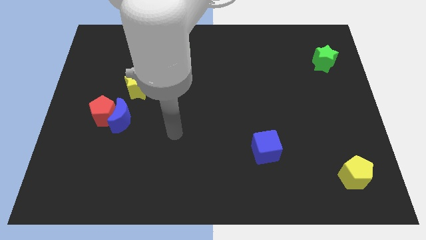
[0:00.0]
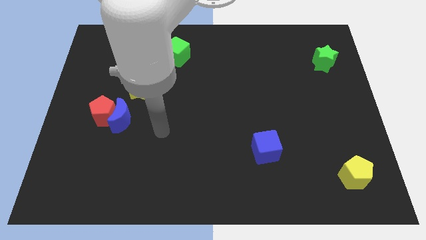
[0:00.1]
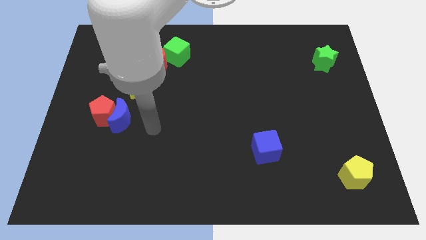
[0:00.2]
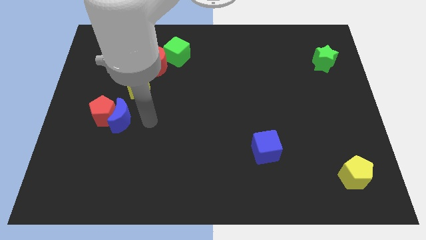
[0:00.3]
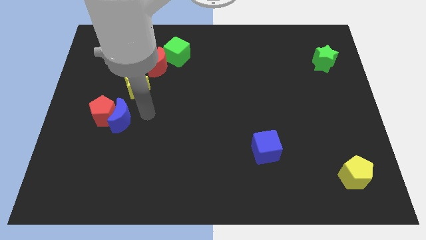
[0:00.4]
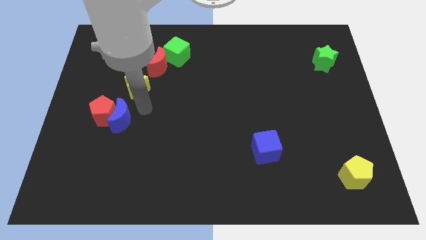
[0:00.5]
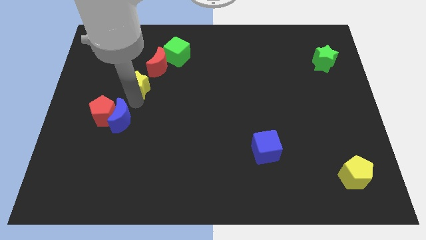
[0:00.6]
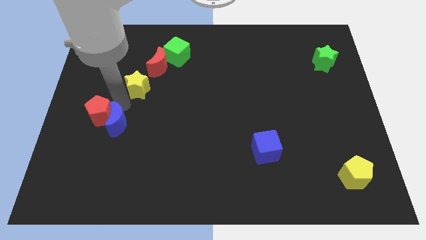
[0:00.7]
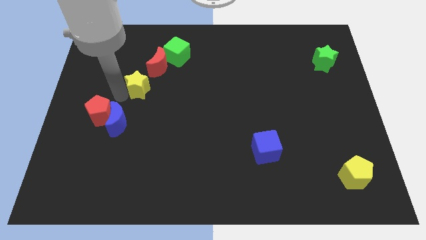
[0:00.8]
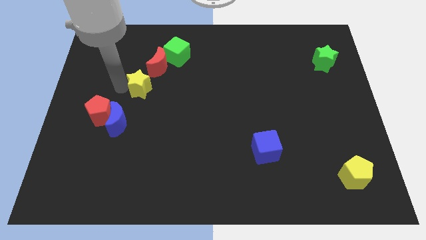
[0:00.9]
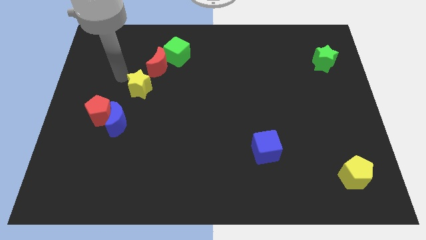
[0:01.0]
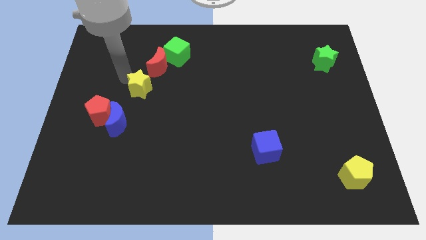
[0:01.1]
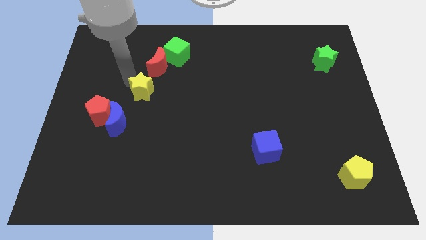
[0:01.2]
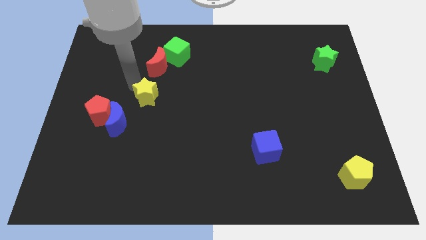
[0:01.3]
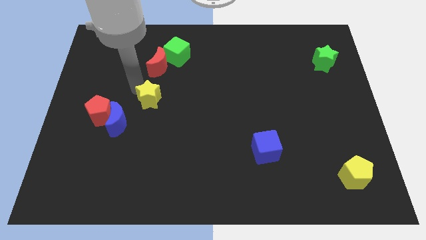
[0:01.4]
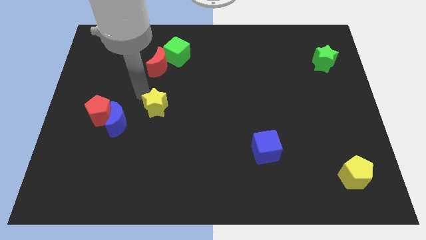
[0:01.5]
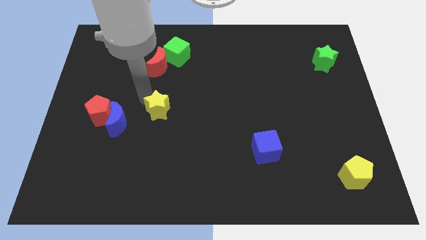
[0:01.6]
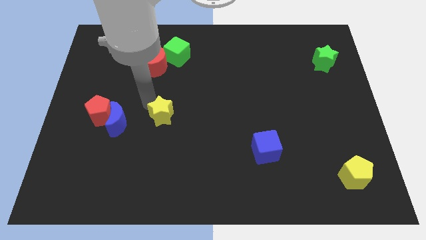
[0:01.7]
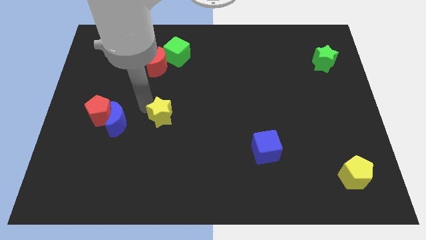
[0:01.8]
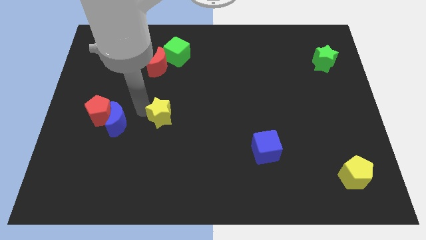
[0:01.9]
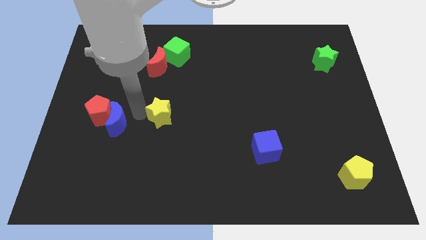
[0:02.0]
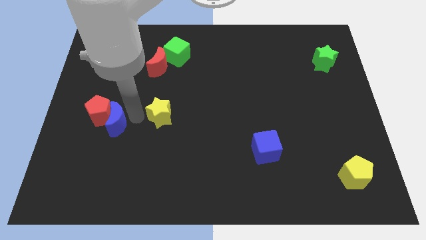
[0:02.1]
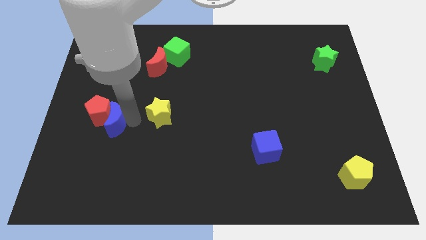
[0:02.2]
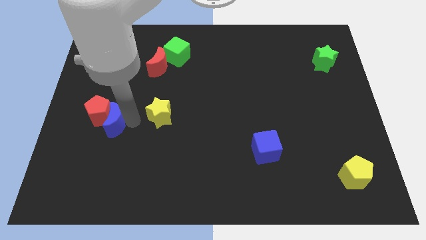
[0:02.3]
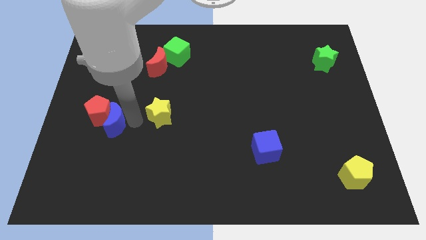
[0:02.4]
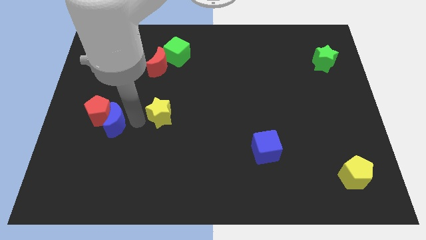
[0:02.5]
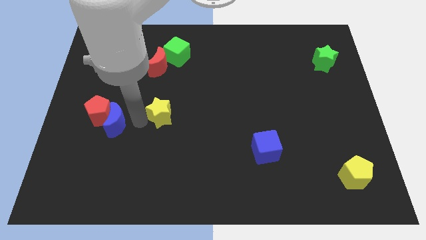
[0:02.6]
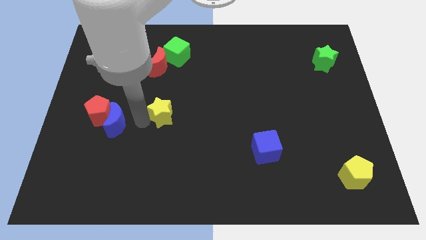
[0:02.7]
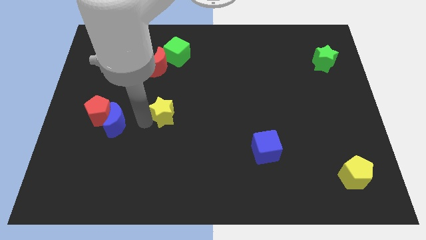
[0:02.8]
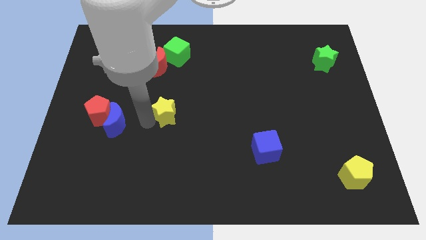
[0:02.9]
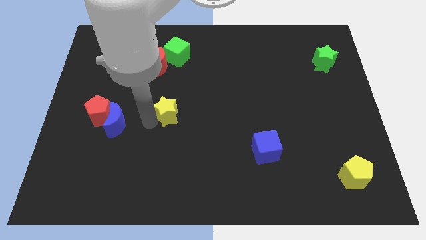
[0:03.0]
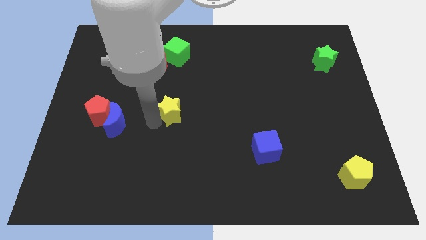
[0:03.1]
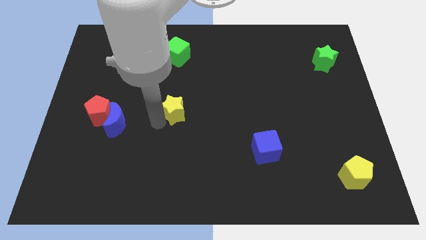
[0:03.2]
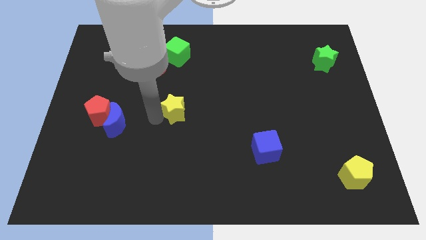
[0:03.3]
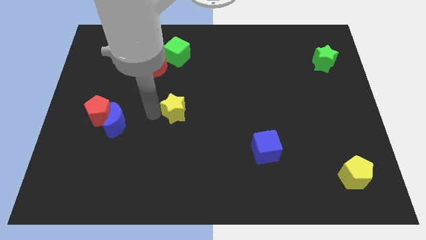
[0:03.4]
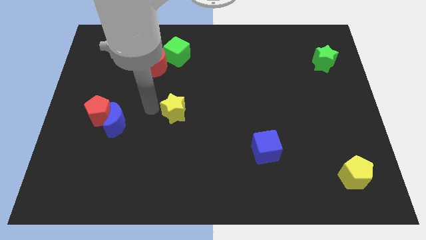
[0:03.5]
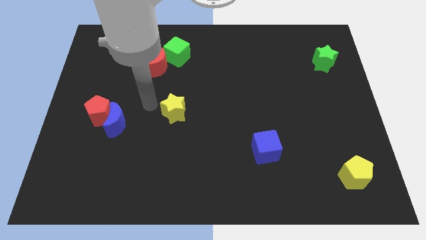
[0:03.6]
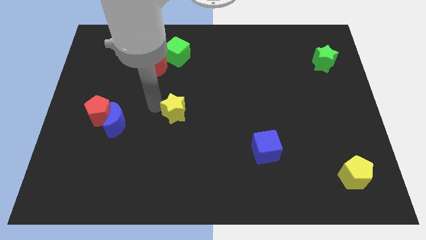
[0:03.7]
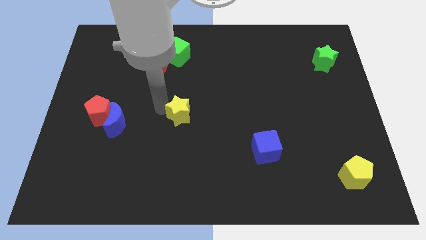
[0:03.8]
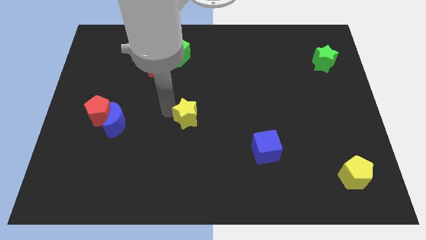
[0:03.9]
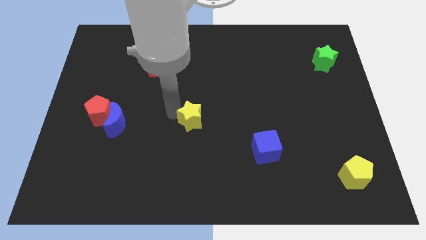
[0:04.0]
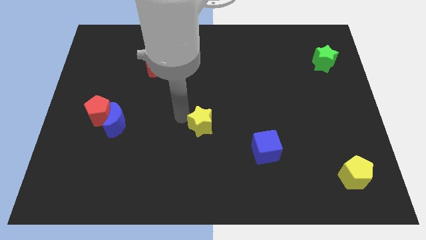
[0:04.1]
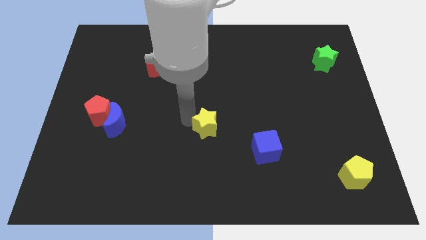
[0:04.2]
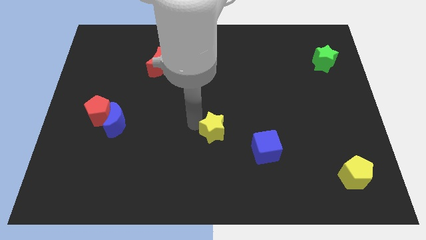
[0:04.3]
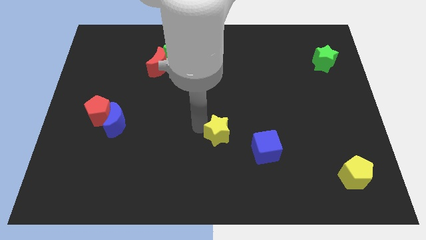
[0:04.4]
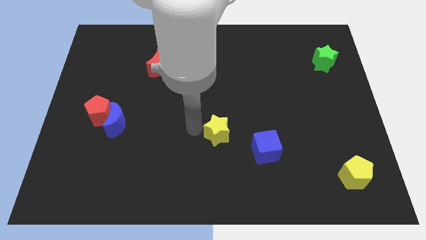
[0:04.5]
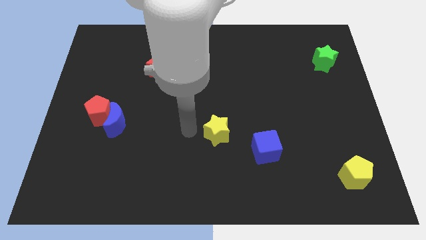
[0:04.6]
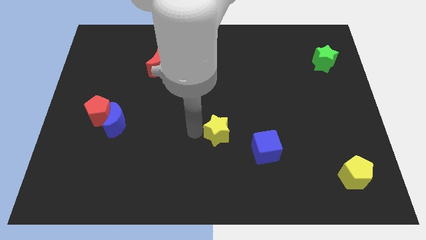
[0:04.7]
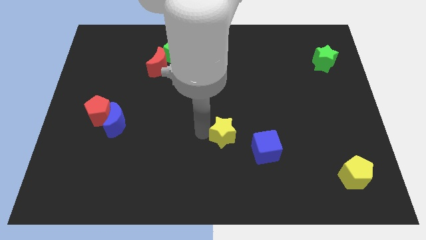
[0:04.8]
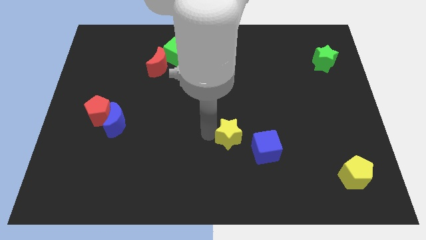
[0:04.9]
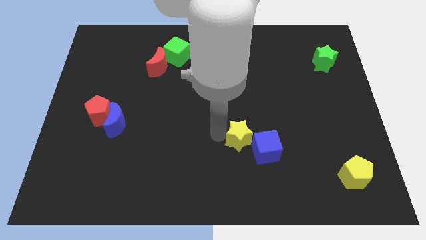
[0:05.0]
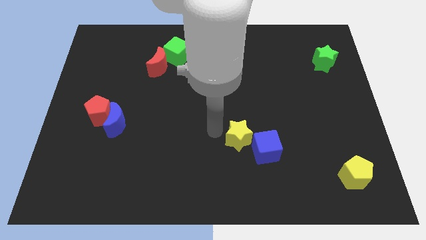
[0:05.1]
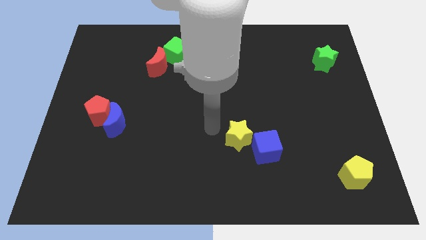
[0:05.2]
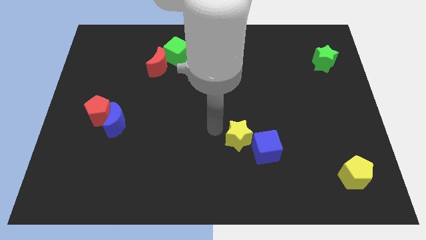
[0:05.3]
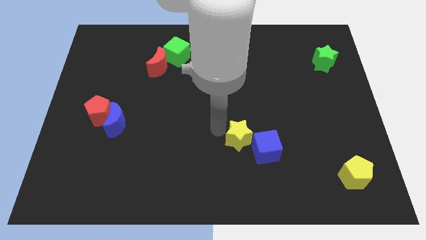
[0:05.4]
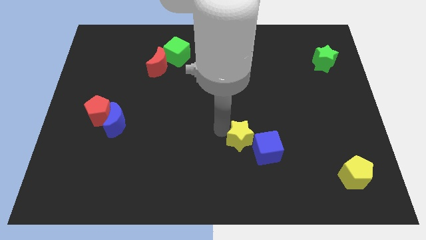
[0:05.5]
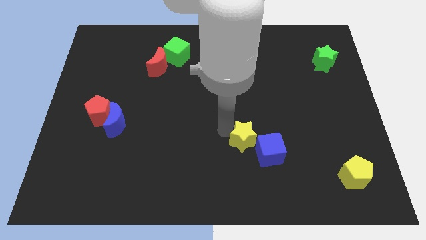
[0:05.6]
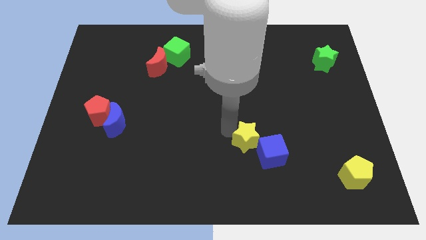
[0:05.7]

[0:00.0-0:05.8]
put the yellow star close to the blue cube

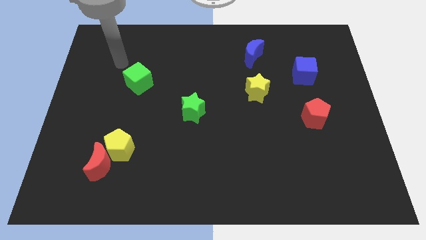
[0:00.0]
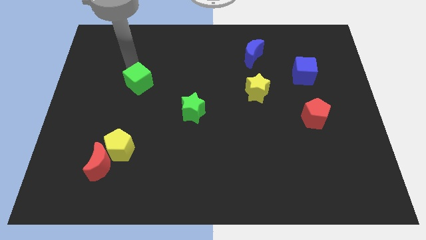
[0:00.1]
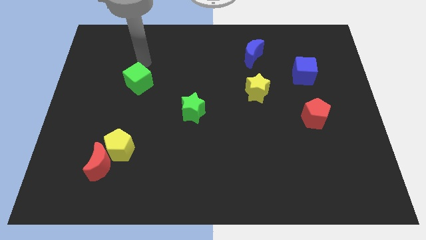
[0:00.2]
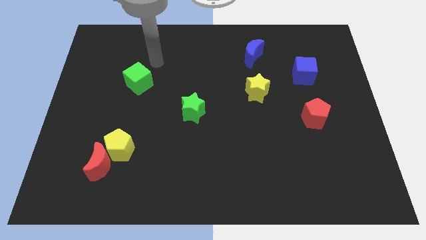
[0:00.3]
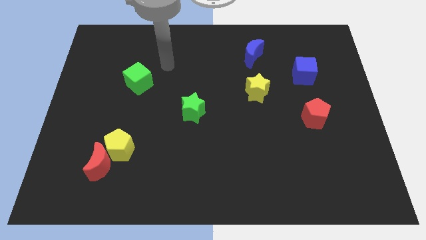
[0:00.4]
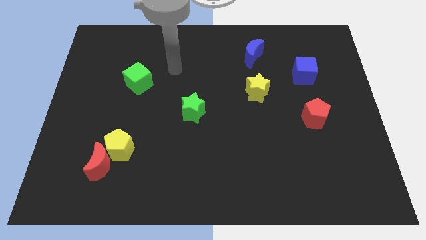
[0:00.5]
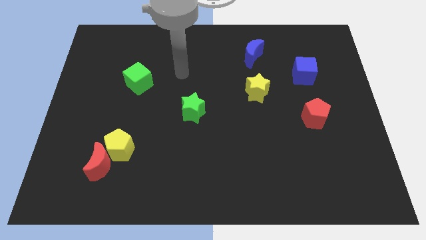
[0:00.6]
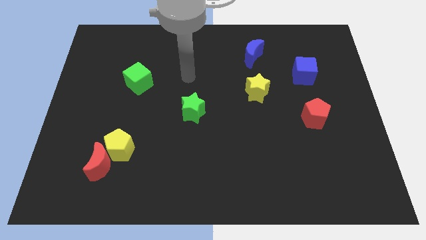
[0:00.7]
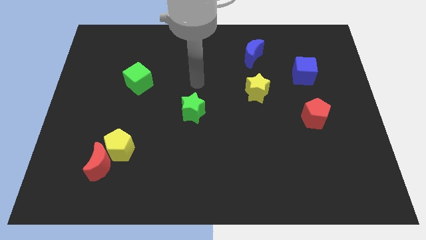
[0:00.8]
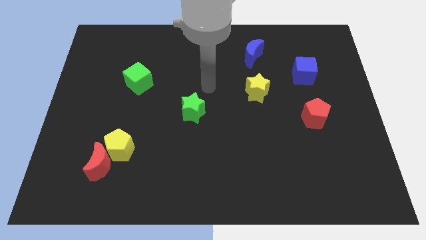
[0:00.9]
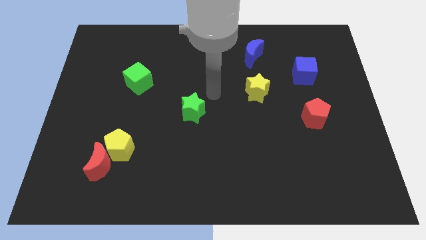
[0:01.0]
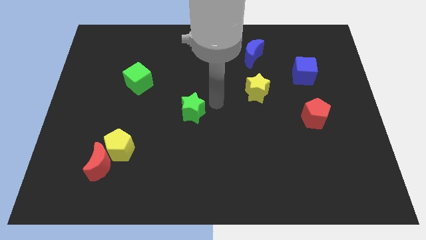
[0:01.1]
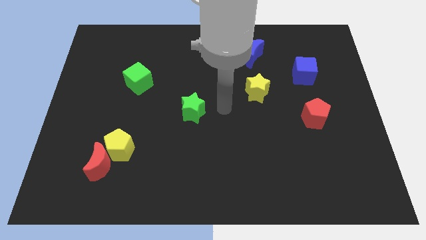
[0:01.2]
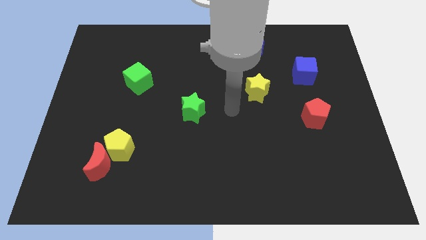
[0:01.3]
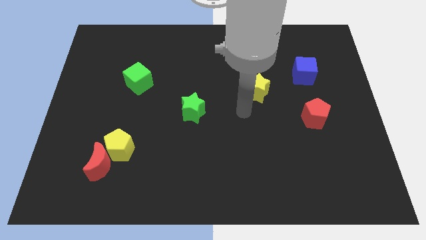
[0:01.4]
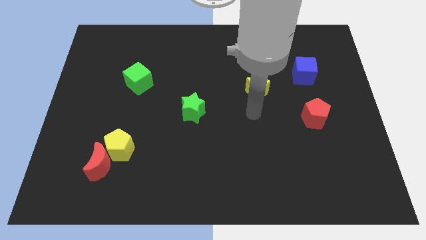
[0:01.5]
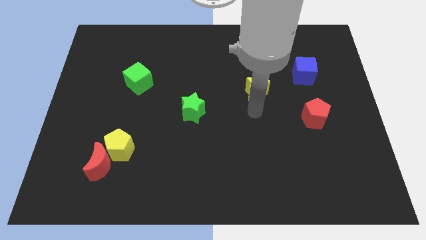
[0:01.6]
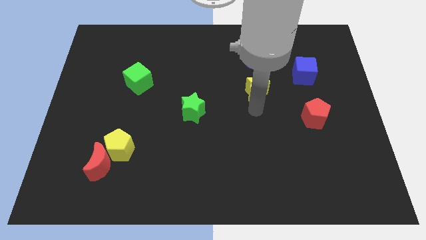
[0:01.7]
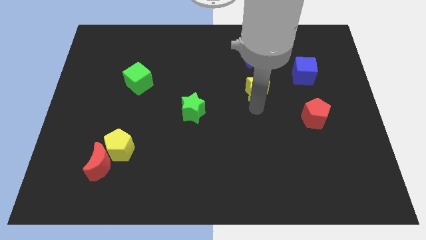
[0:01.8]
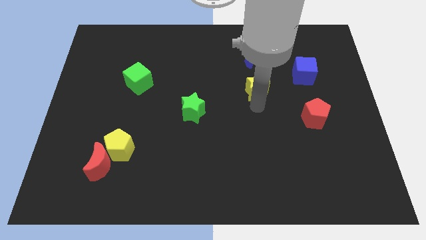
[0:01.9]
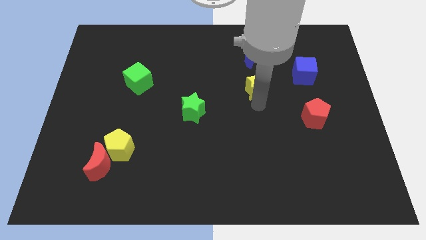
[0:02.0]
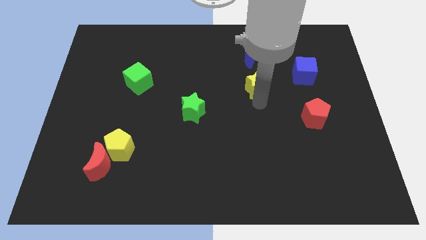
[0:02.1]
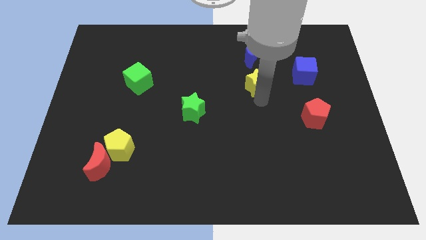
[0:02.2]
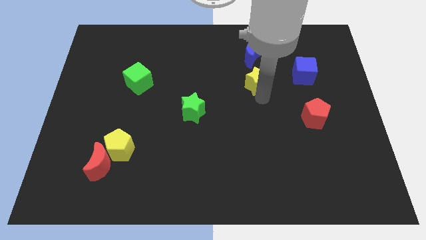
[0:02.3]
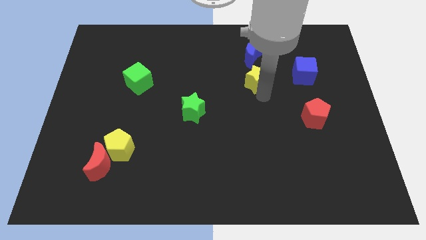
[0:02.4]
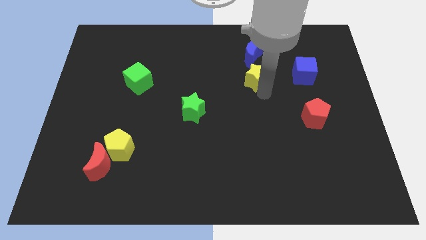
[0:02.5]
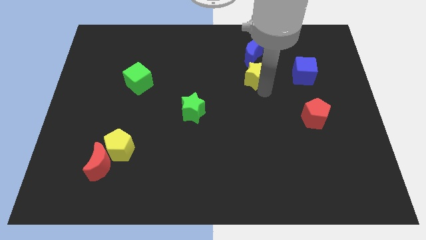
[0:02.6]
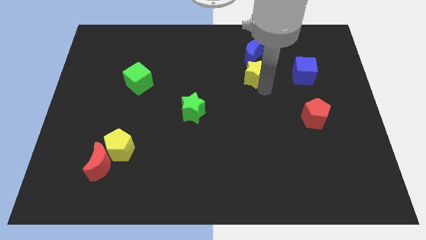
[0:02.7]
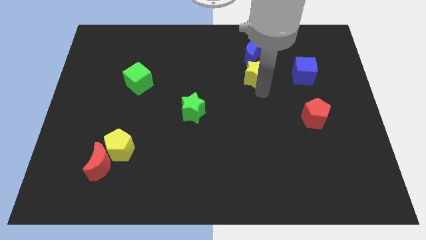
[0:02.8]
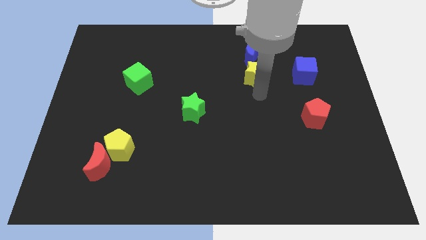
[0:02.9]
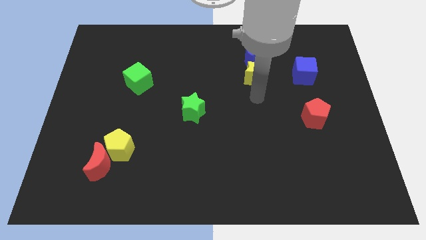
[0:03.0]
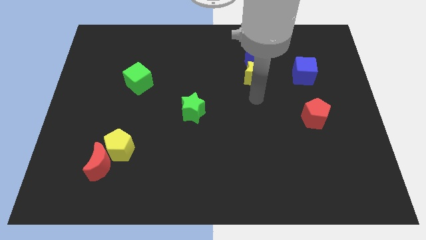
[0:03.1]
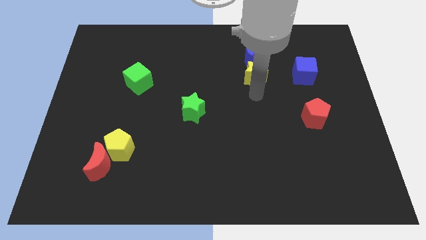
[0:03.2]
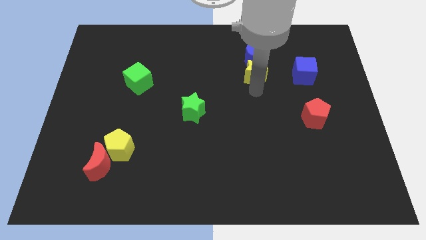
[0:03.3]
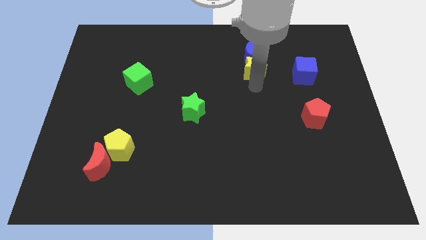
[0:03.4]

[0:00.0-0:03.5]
put the yellow star to the blue moon
